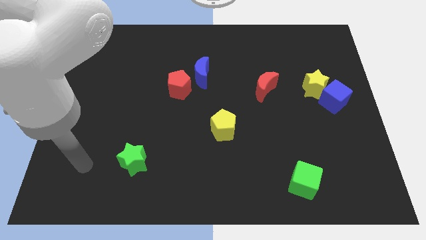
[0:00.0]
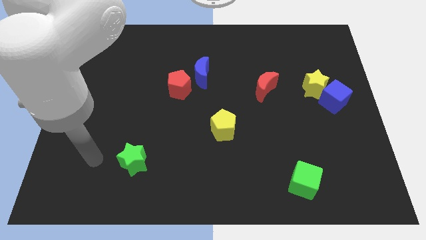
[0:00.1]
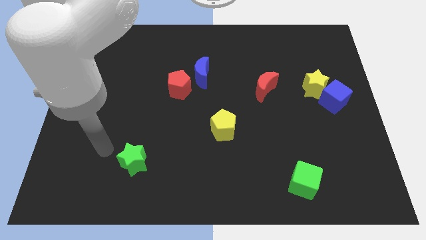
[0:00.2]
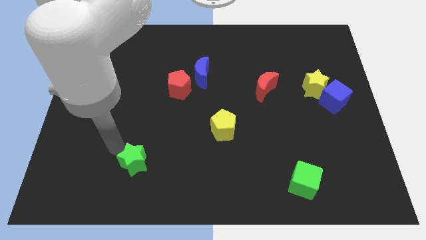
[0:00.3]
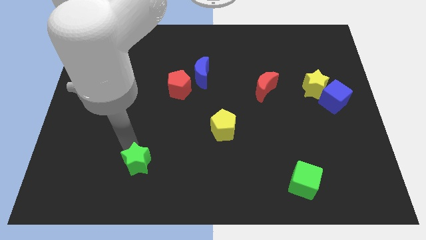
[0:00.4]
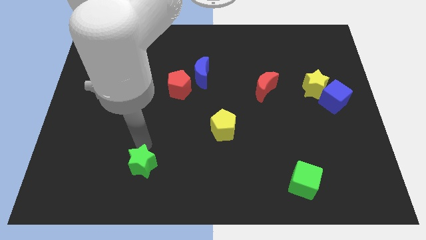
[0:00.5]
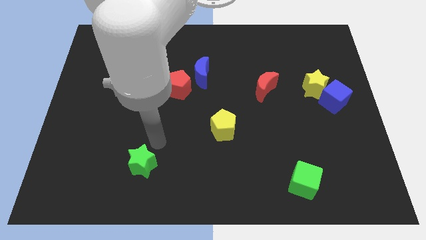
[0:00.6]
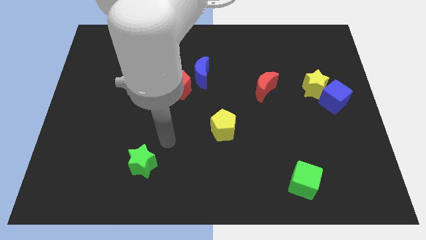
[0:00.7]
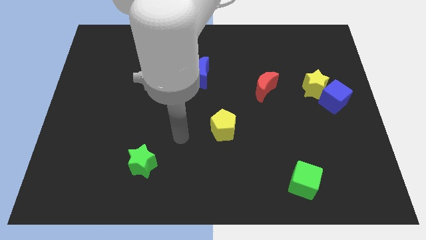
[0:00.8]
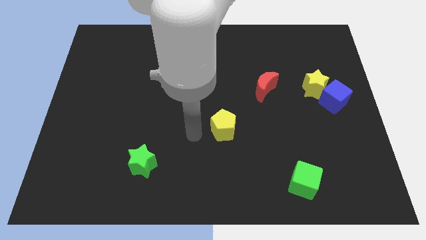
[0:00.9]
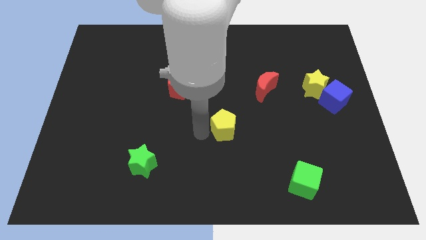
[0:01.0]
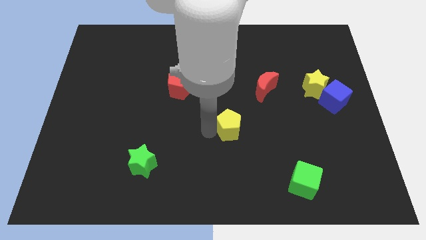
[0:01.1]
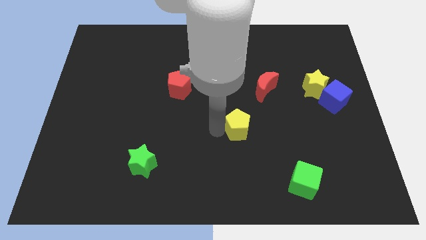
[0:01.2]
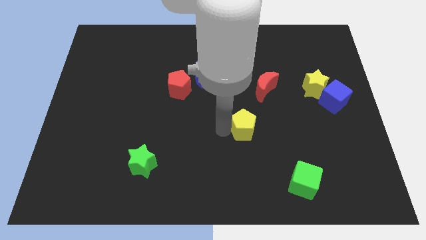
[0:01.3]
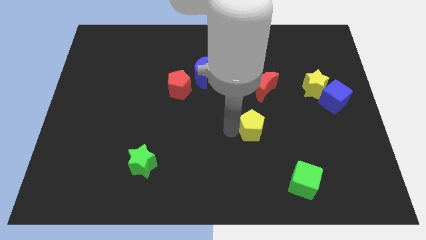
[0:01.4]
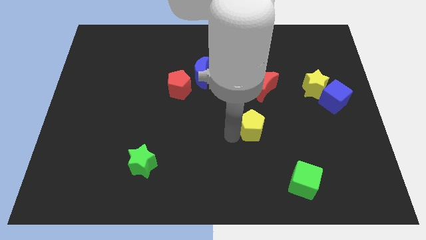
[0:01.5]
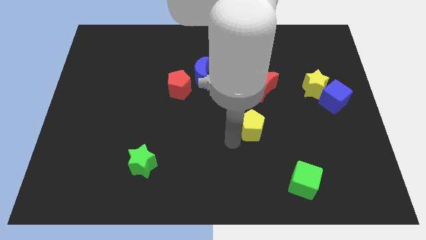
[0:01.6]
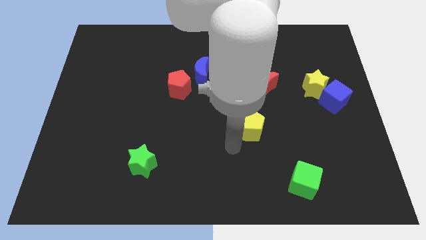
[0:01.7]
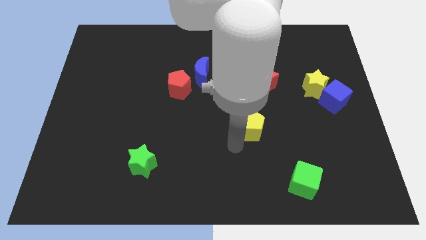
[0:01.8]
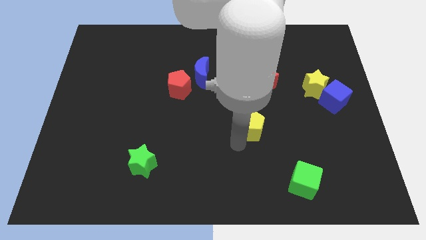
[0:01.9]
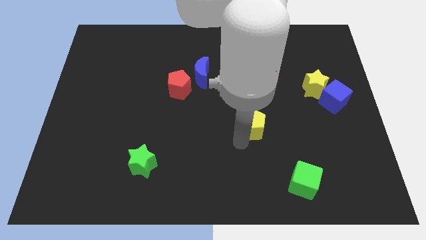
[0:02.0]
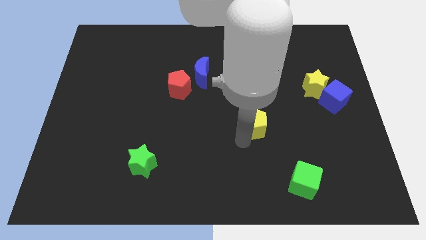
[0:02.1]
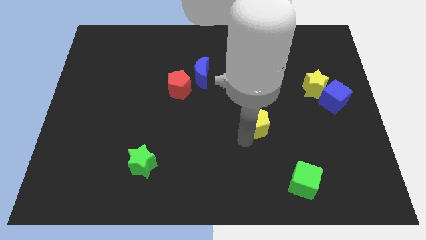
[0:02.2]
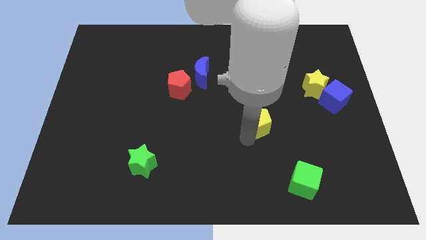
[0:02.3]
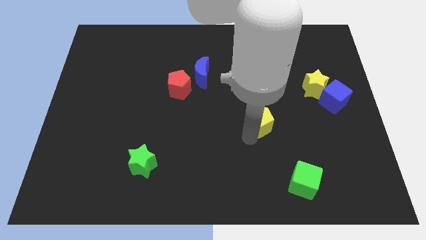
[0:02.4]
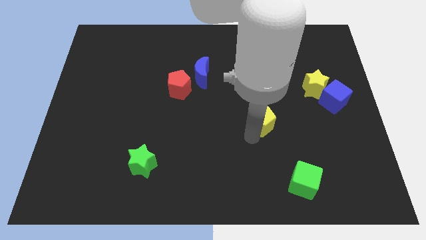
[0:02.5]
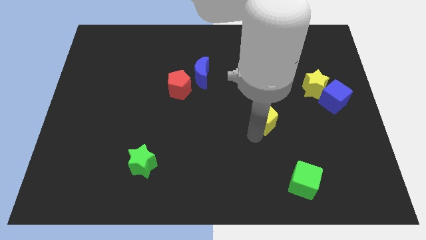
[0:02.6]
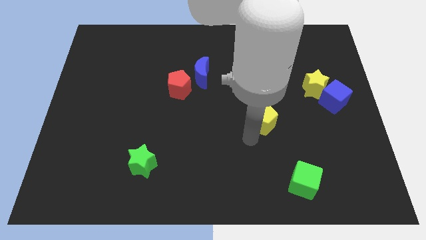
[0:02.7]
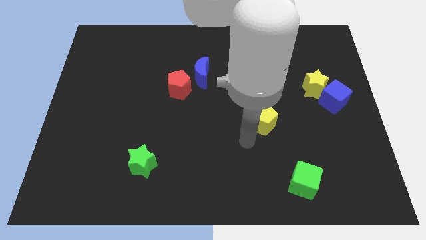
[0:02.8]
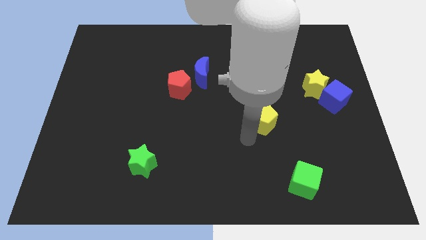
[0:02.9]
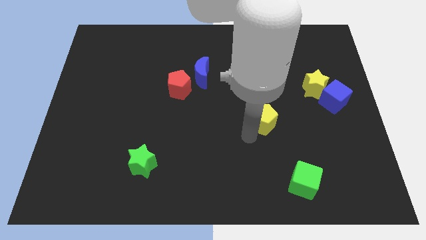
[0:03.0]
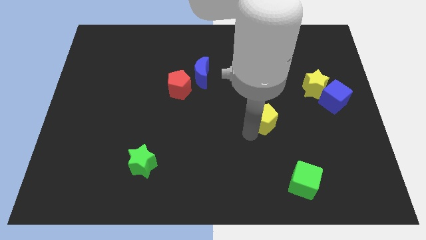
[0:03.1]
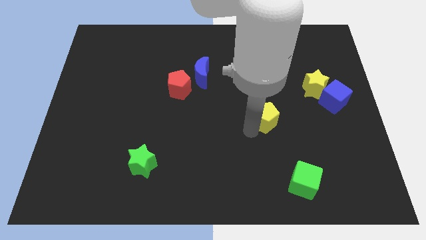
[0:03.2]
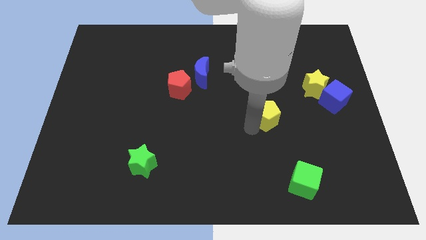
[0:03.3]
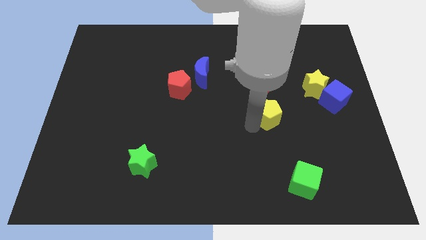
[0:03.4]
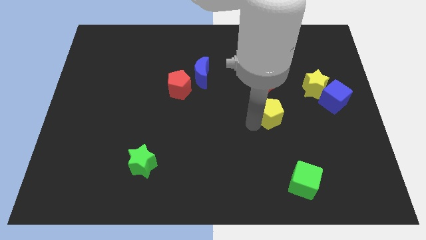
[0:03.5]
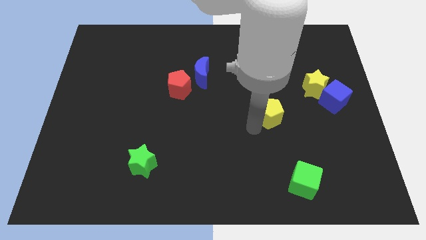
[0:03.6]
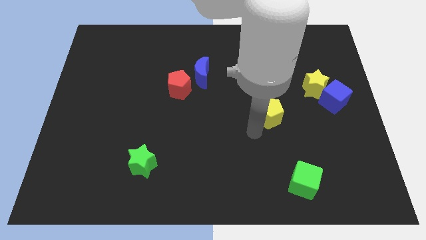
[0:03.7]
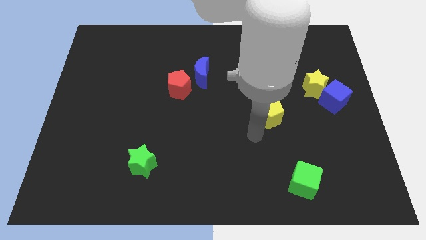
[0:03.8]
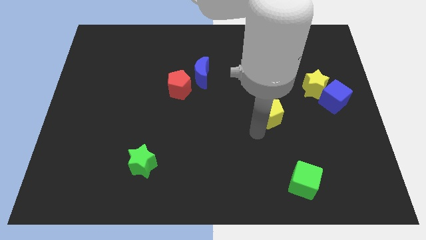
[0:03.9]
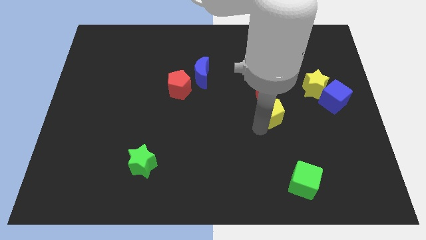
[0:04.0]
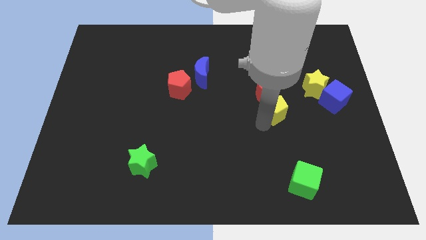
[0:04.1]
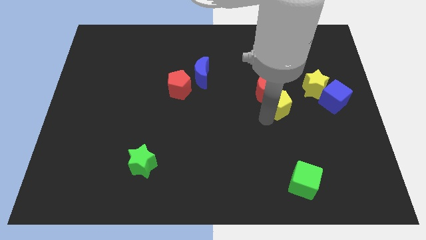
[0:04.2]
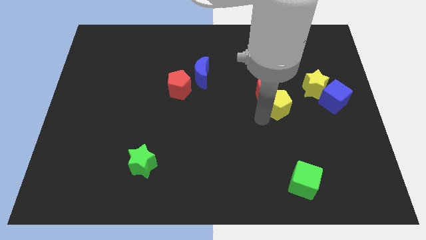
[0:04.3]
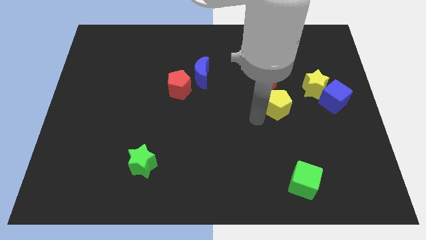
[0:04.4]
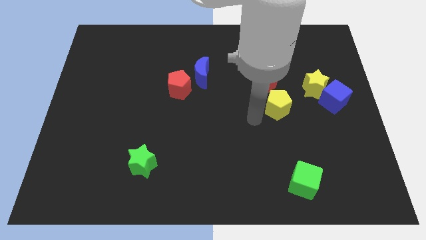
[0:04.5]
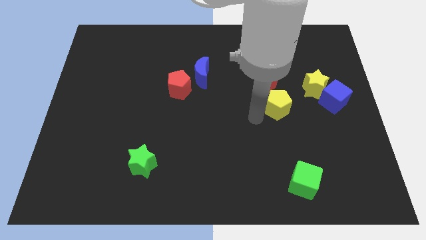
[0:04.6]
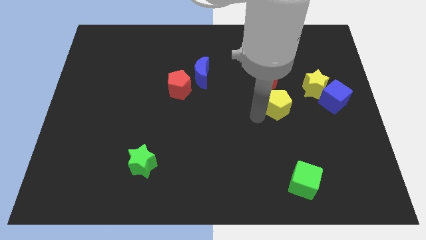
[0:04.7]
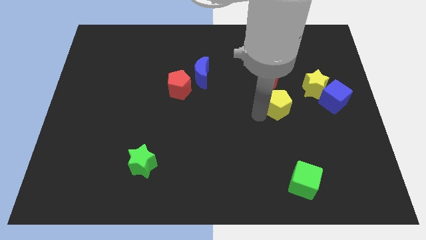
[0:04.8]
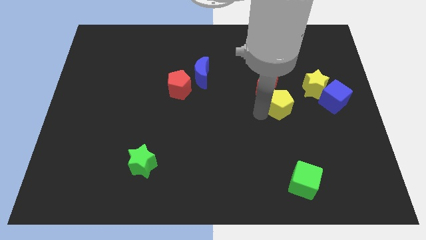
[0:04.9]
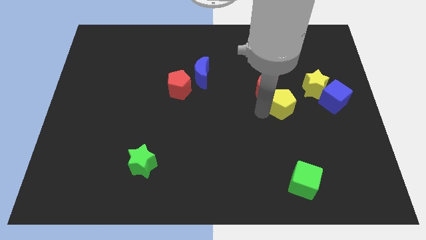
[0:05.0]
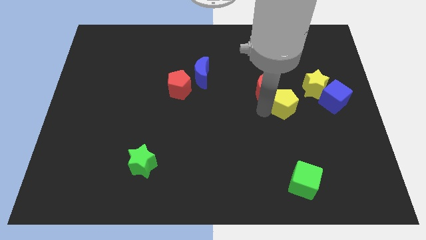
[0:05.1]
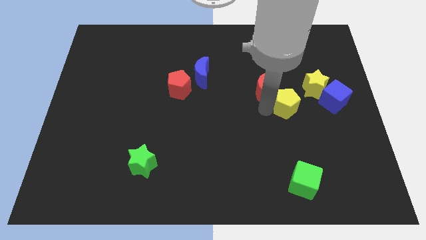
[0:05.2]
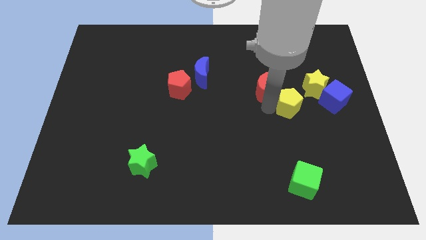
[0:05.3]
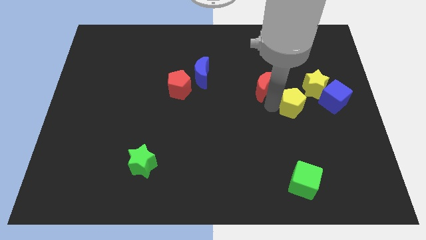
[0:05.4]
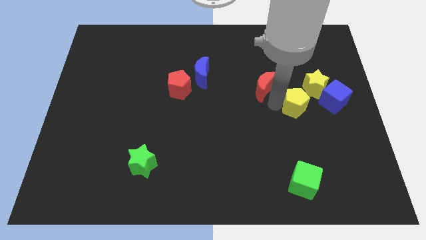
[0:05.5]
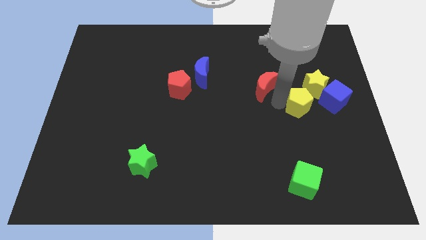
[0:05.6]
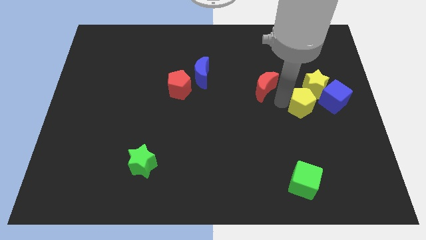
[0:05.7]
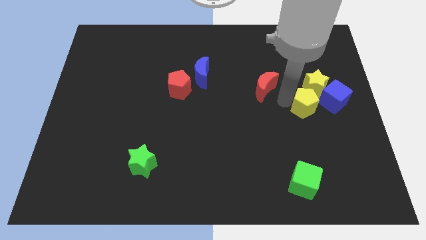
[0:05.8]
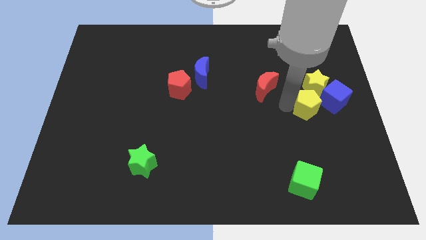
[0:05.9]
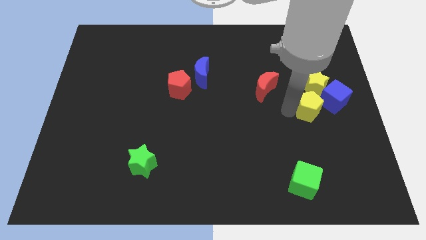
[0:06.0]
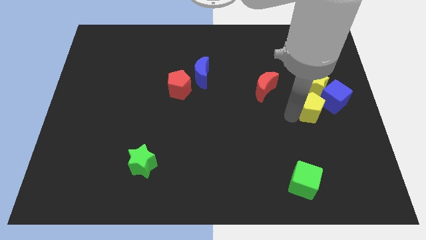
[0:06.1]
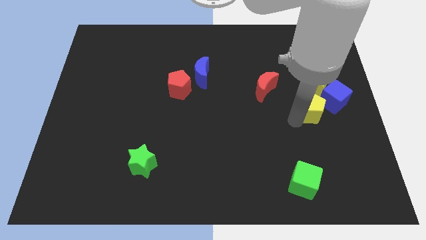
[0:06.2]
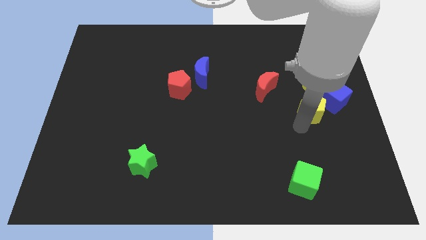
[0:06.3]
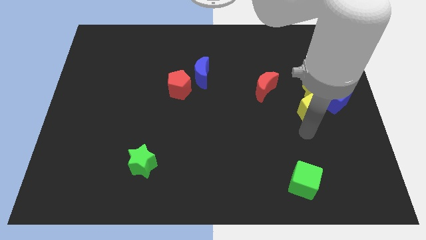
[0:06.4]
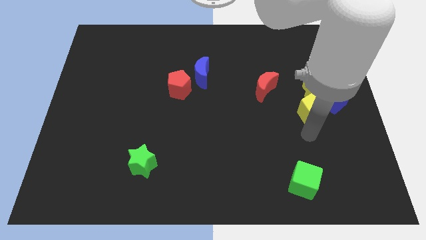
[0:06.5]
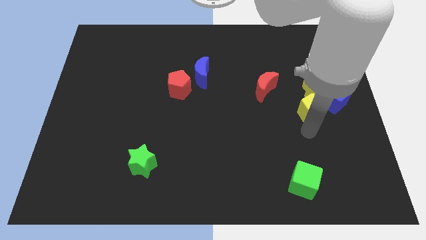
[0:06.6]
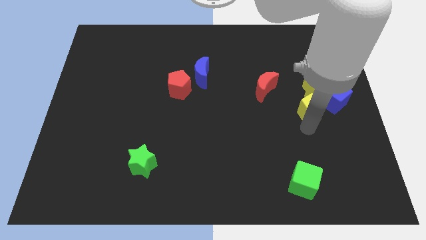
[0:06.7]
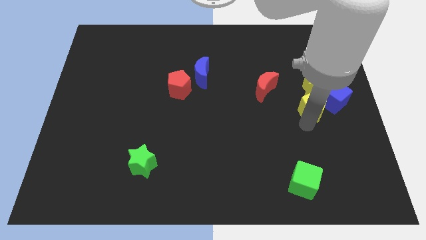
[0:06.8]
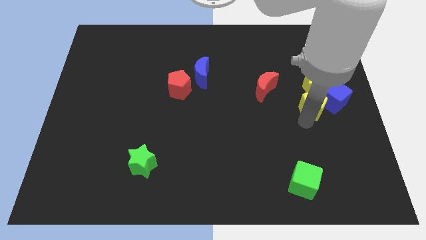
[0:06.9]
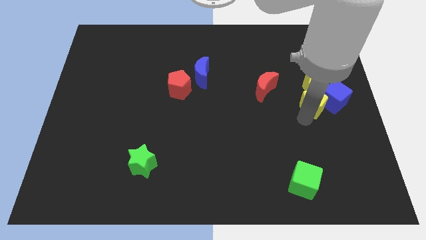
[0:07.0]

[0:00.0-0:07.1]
slide the yellow pentagon next to the yellow star

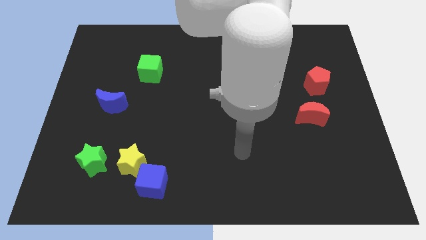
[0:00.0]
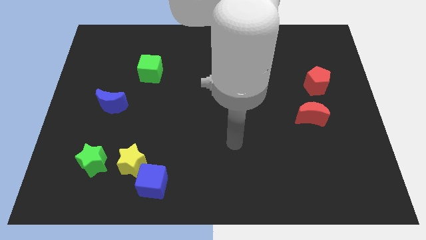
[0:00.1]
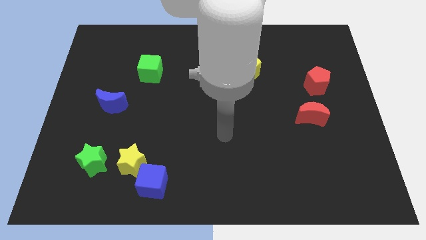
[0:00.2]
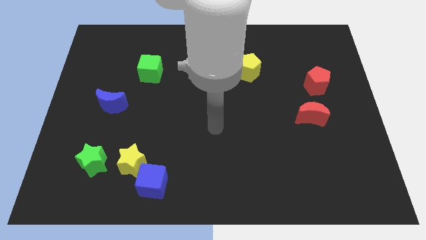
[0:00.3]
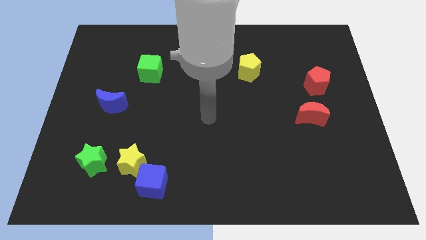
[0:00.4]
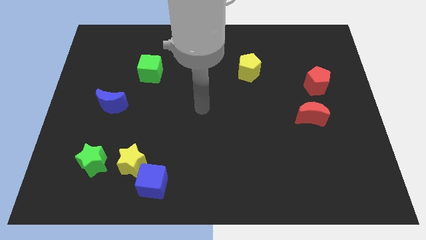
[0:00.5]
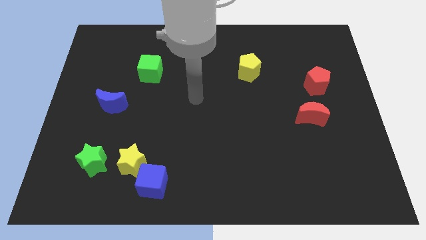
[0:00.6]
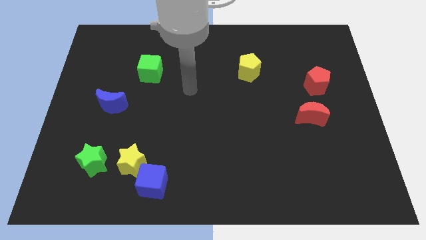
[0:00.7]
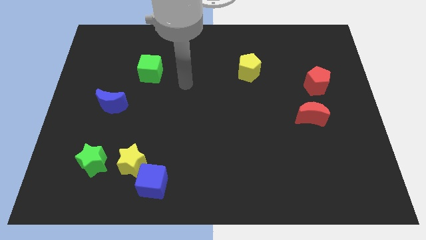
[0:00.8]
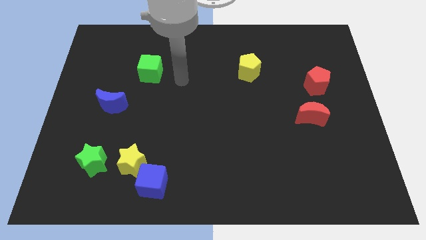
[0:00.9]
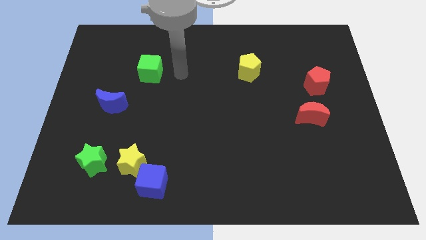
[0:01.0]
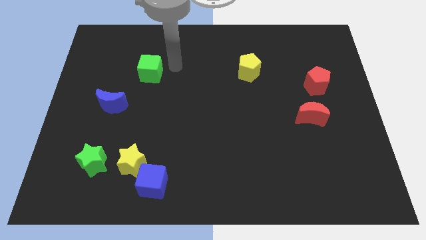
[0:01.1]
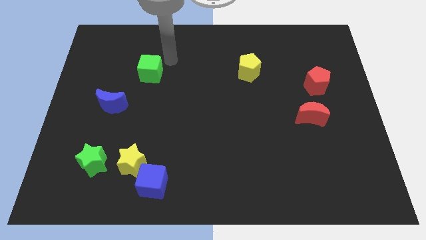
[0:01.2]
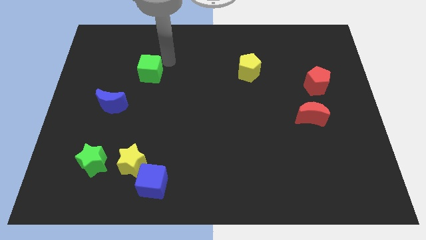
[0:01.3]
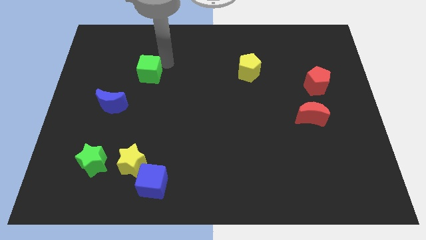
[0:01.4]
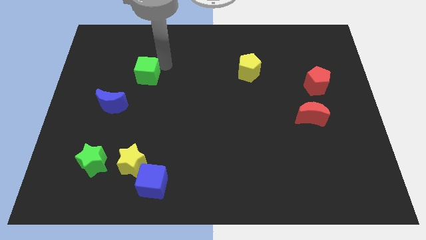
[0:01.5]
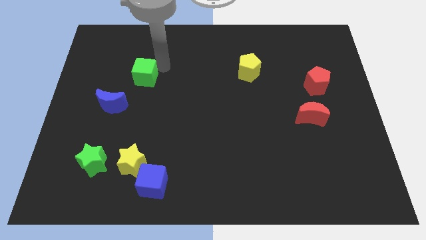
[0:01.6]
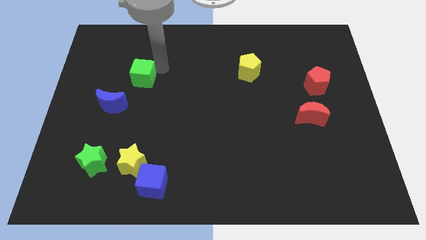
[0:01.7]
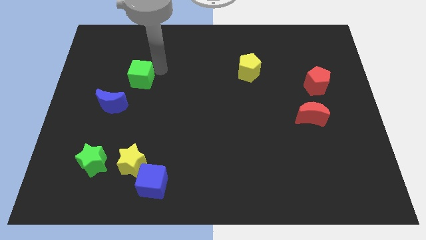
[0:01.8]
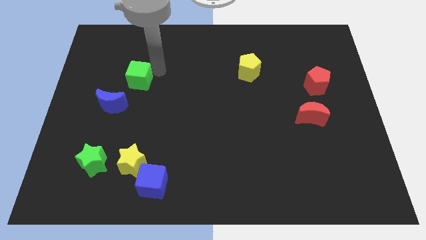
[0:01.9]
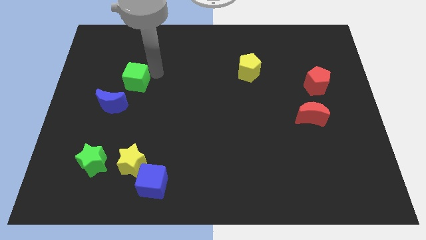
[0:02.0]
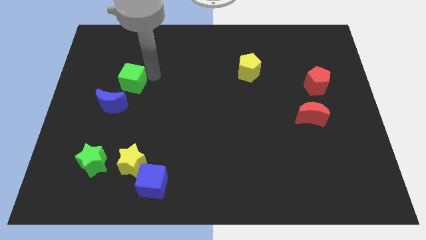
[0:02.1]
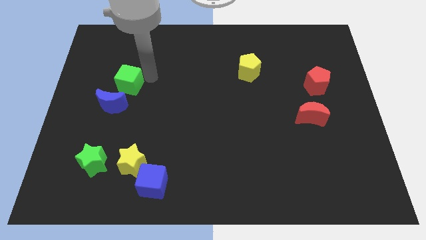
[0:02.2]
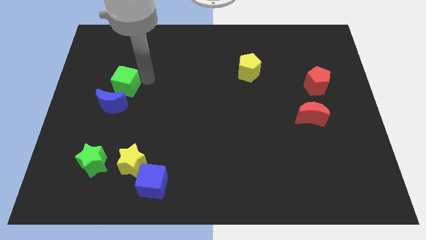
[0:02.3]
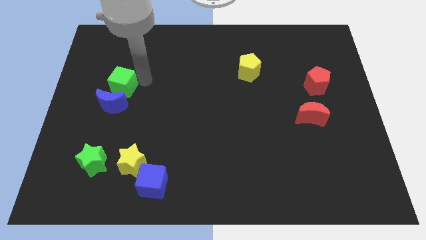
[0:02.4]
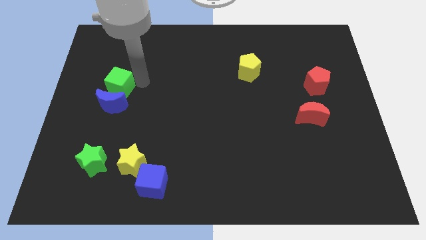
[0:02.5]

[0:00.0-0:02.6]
slide the green cube to the blue moon
